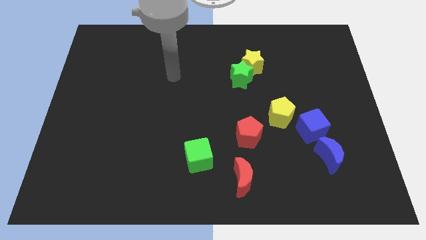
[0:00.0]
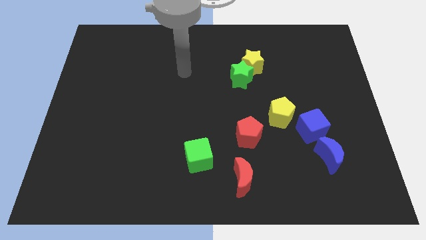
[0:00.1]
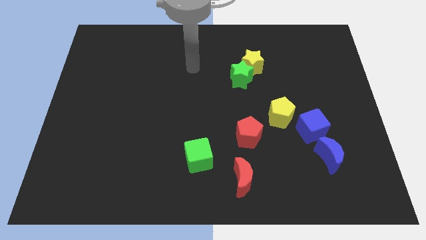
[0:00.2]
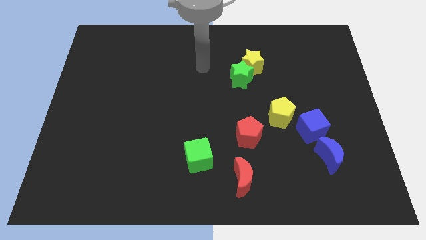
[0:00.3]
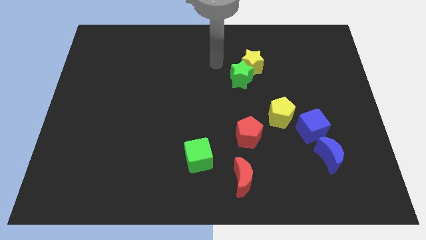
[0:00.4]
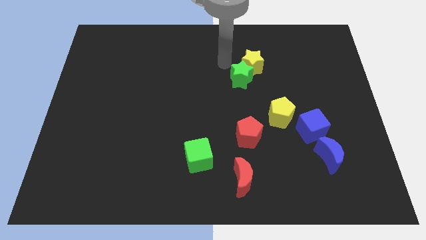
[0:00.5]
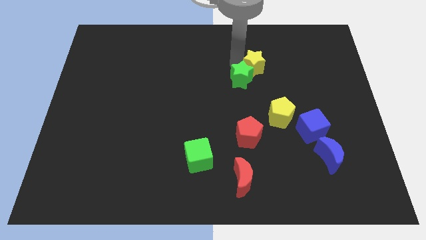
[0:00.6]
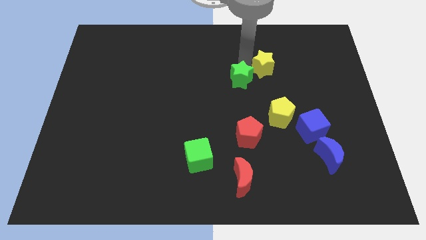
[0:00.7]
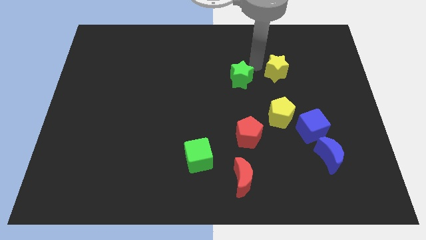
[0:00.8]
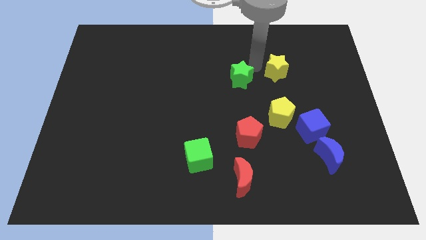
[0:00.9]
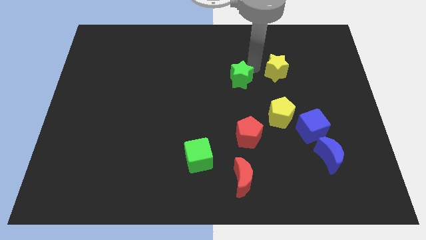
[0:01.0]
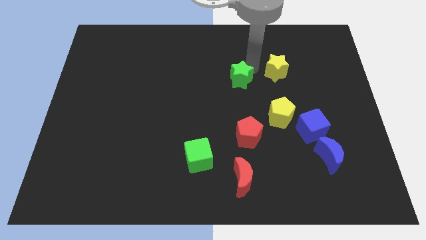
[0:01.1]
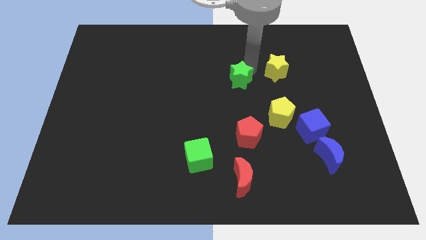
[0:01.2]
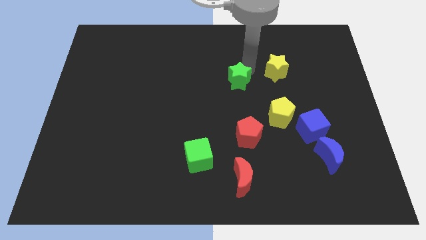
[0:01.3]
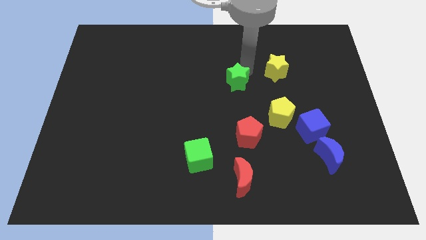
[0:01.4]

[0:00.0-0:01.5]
pull the green star apart from the yellow star

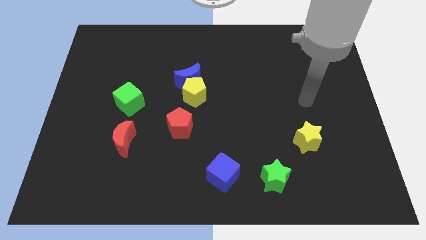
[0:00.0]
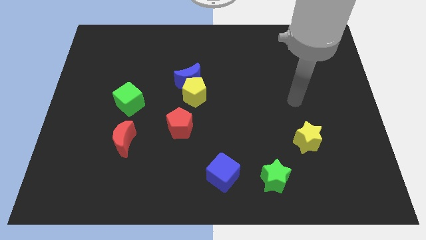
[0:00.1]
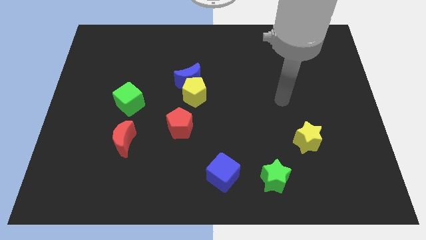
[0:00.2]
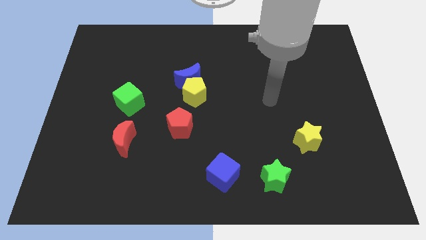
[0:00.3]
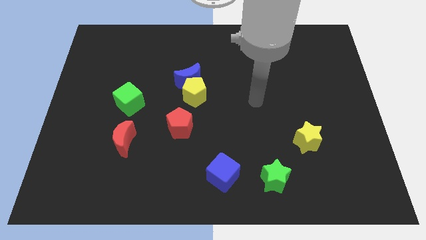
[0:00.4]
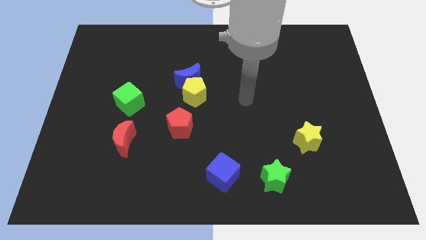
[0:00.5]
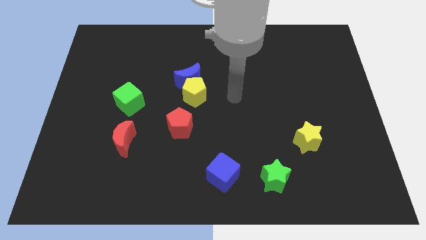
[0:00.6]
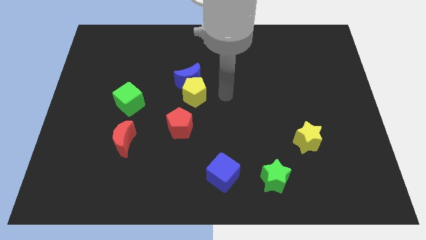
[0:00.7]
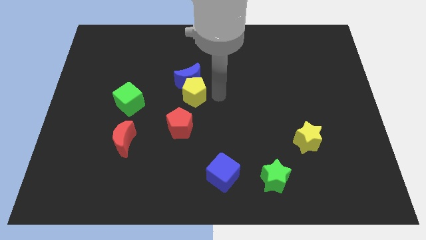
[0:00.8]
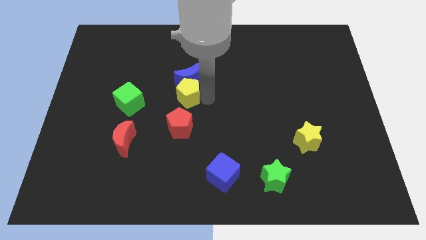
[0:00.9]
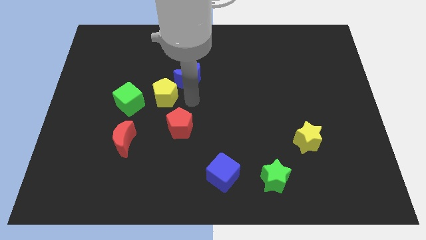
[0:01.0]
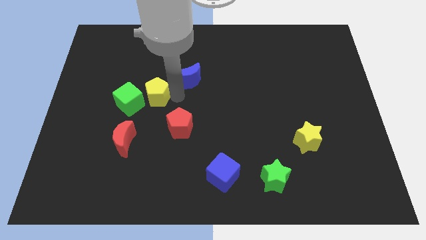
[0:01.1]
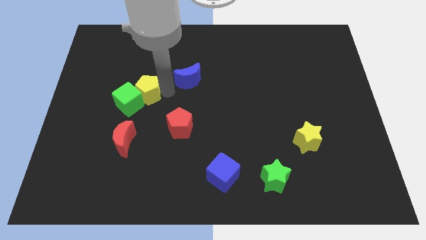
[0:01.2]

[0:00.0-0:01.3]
pull the blue moon apart from the yellow pentagon

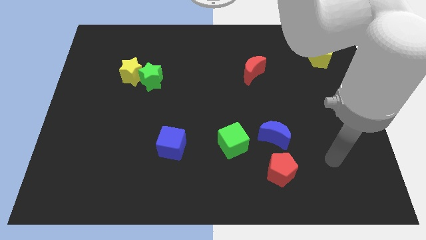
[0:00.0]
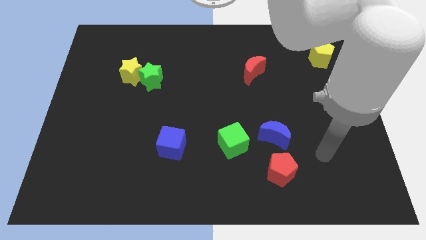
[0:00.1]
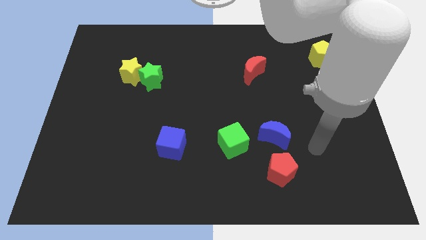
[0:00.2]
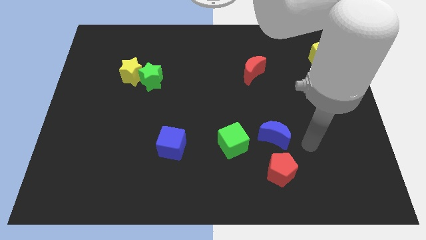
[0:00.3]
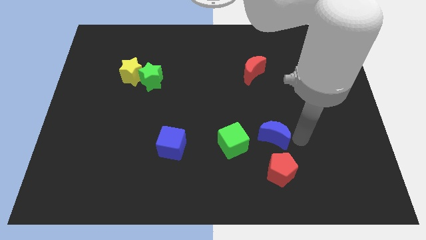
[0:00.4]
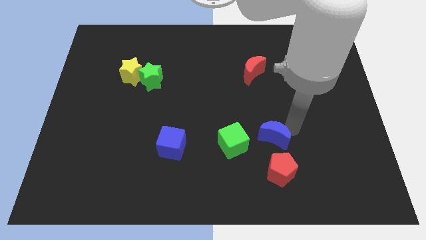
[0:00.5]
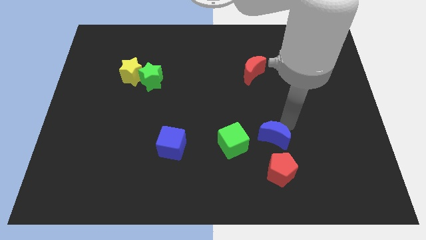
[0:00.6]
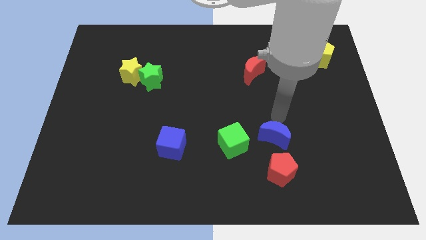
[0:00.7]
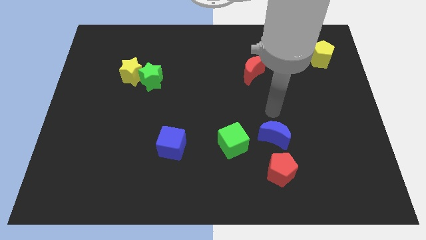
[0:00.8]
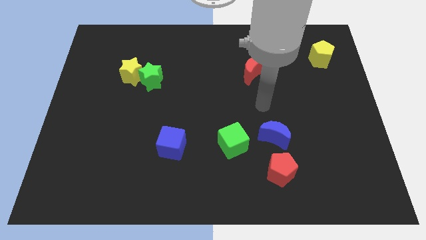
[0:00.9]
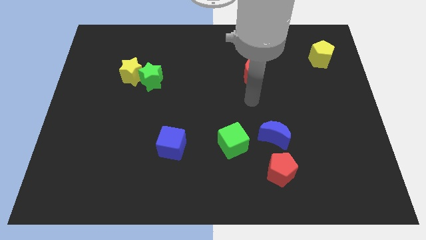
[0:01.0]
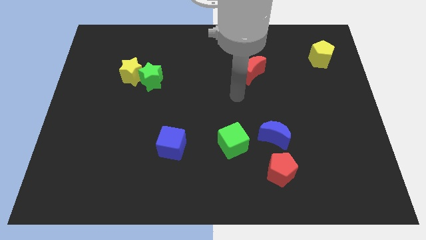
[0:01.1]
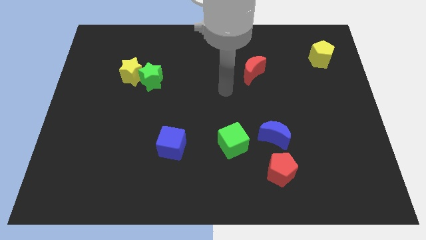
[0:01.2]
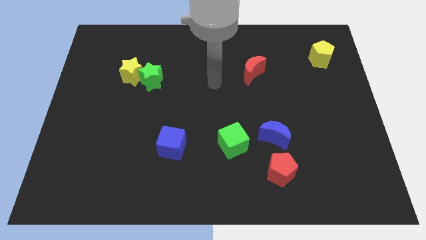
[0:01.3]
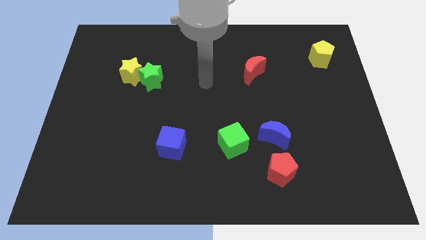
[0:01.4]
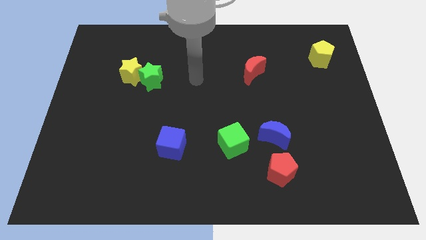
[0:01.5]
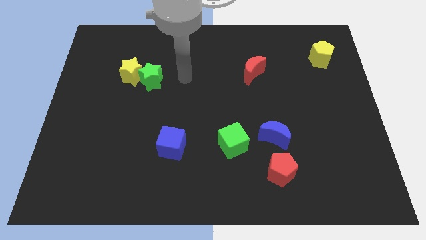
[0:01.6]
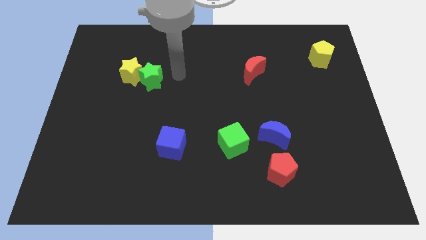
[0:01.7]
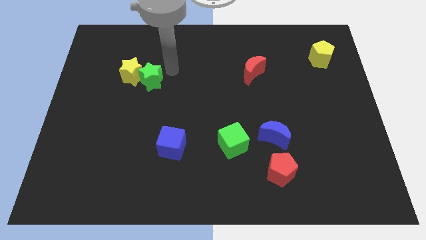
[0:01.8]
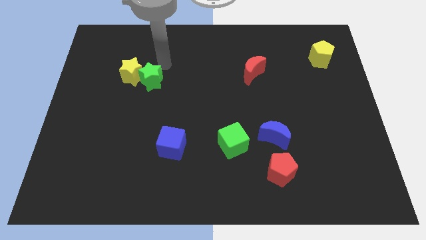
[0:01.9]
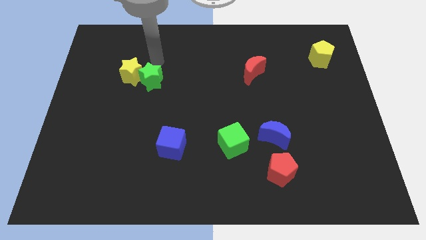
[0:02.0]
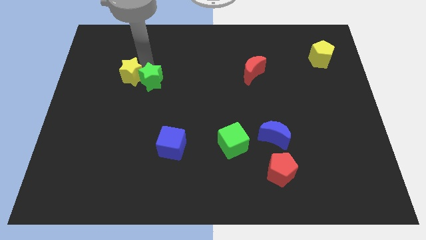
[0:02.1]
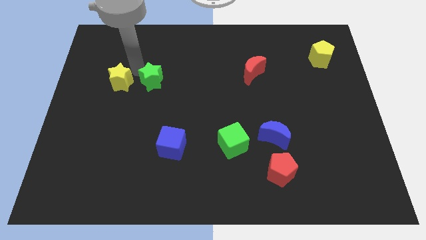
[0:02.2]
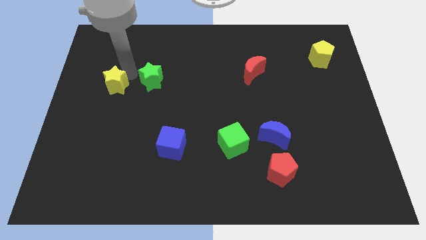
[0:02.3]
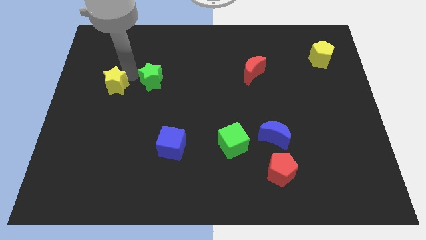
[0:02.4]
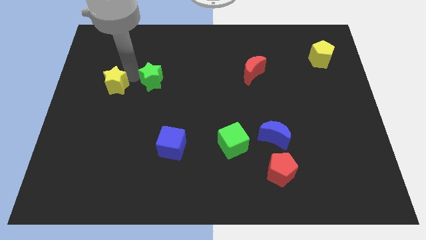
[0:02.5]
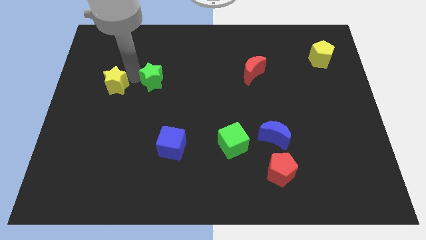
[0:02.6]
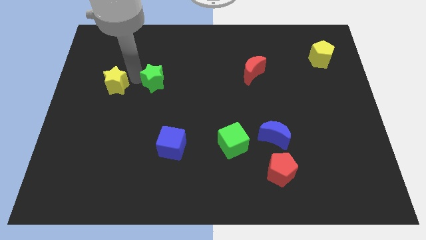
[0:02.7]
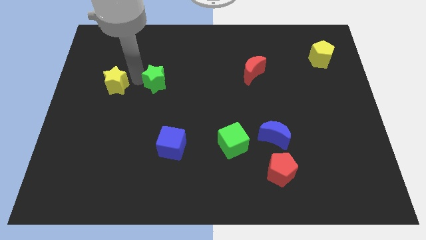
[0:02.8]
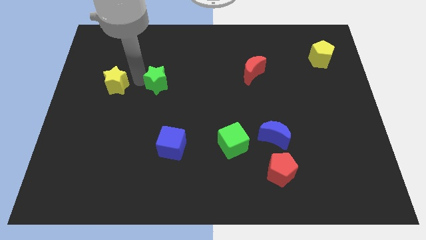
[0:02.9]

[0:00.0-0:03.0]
separate the green star from the yellow star

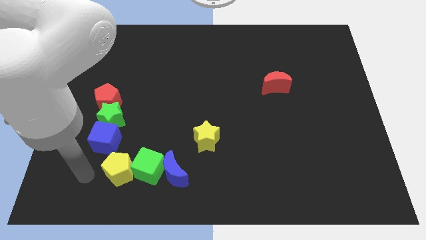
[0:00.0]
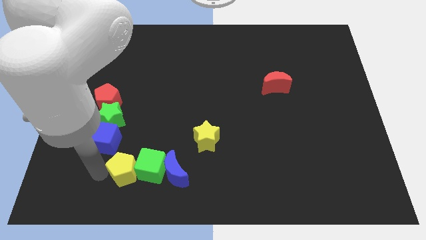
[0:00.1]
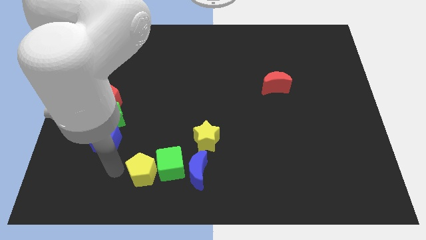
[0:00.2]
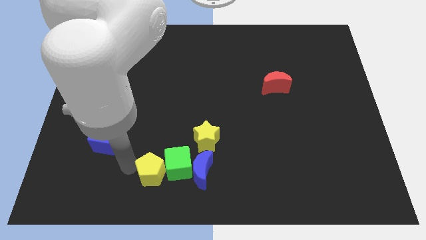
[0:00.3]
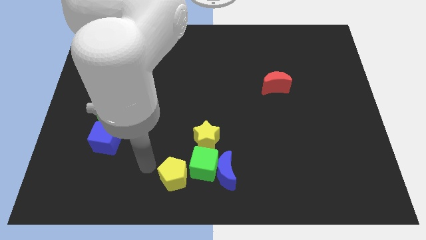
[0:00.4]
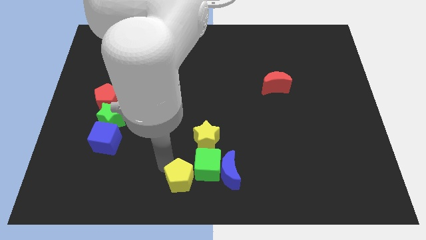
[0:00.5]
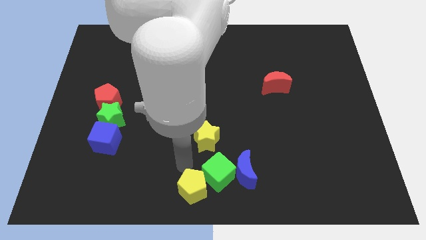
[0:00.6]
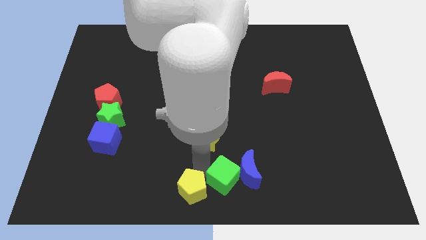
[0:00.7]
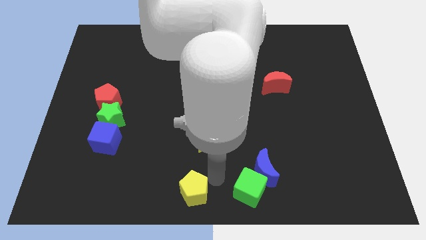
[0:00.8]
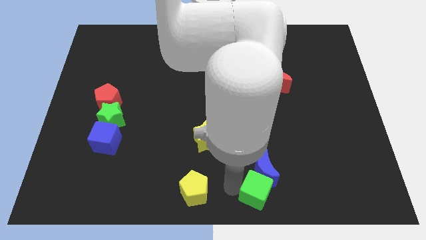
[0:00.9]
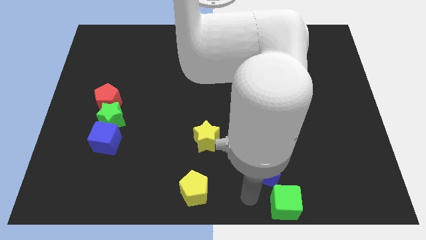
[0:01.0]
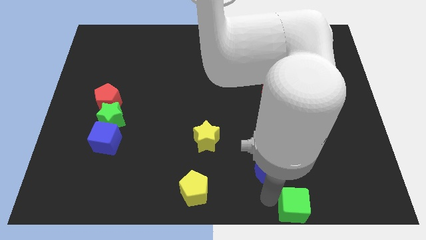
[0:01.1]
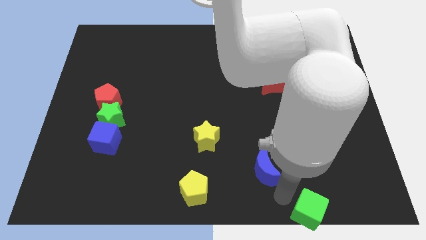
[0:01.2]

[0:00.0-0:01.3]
pull the blue moon apart from the green cube

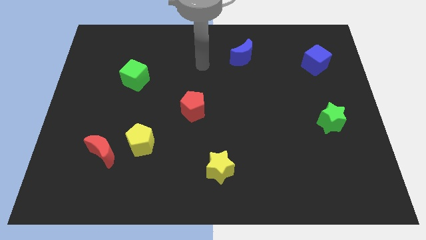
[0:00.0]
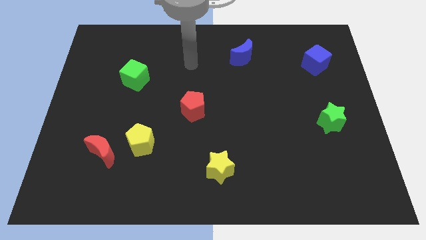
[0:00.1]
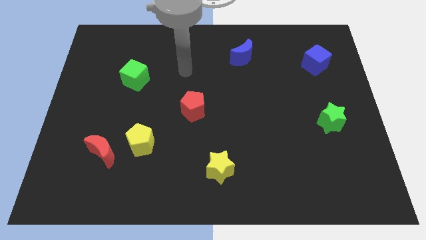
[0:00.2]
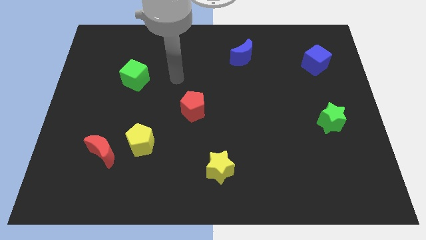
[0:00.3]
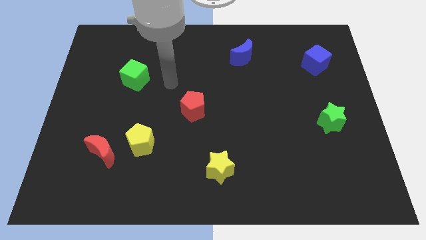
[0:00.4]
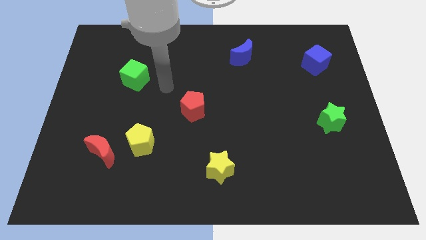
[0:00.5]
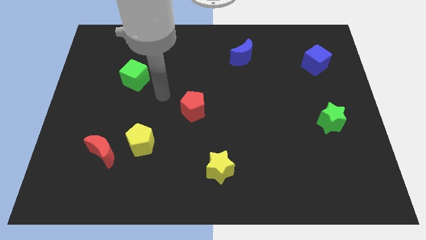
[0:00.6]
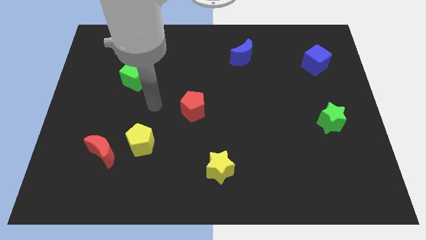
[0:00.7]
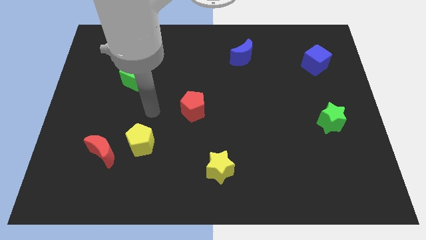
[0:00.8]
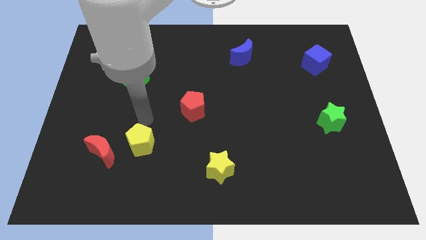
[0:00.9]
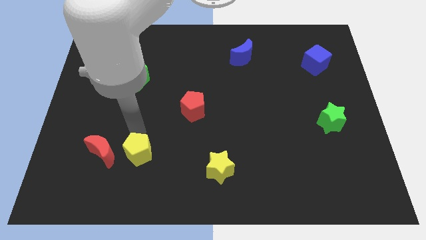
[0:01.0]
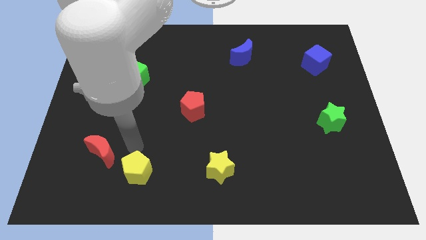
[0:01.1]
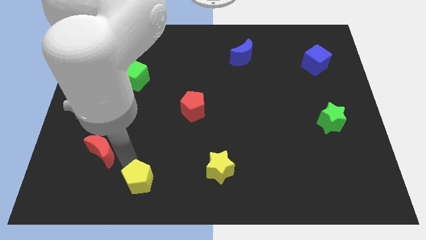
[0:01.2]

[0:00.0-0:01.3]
move the red moon away from the yellow pentagon

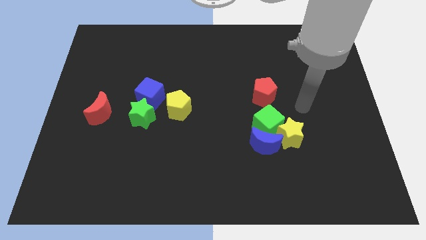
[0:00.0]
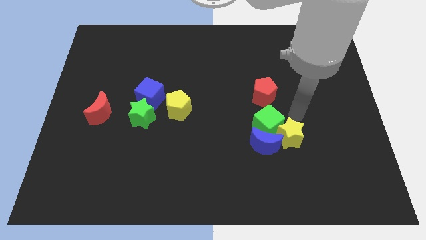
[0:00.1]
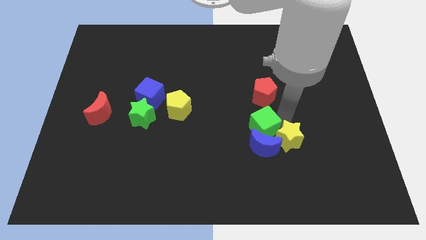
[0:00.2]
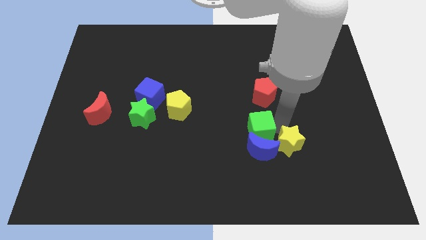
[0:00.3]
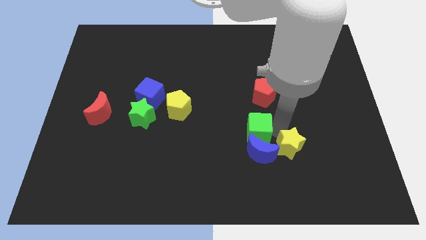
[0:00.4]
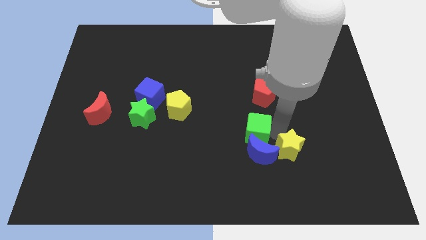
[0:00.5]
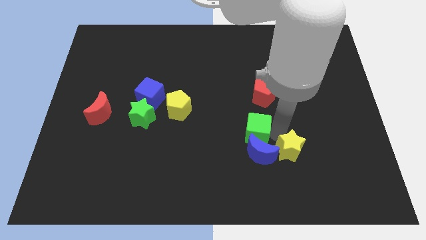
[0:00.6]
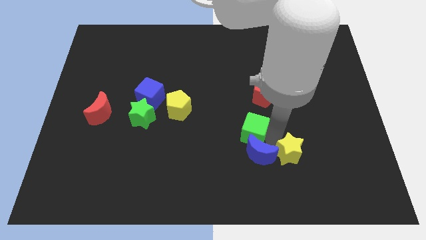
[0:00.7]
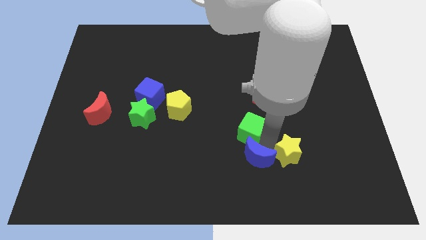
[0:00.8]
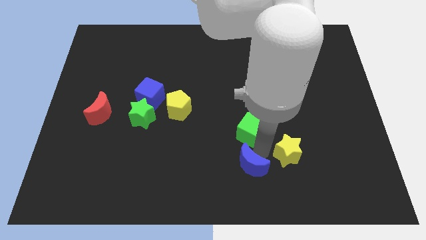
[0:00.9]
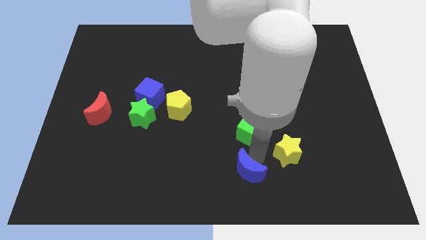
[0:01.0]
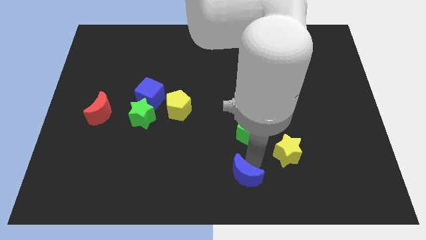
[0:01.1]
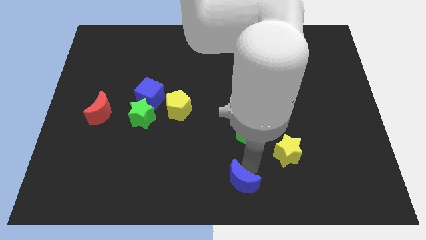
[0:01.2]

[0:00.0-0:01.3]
separate the blue moon from the green cube and yellow star
